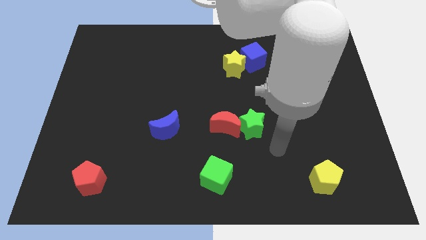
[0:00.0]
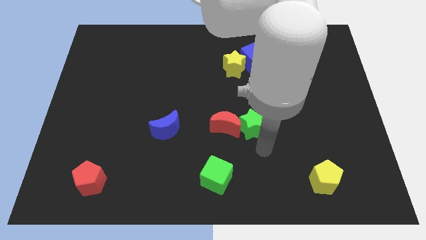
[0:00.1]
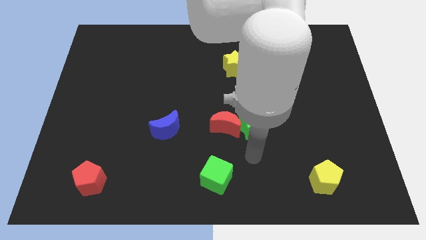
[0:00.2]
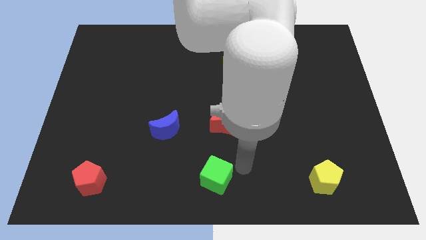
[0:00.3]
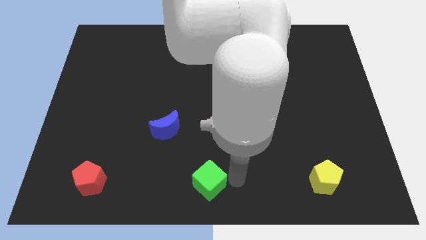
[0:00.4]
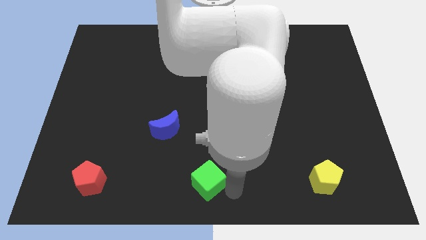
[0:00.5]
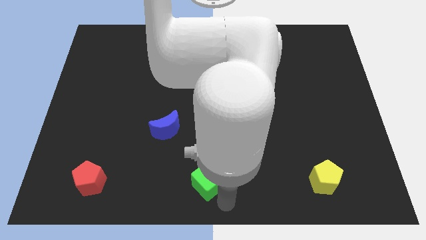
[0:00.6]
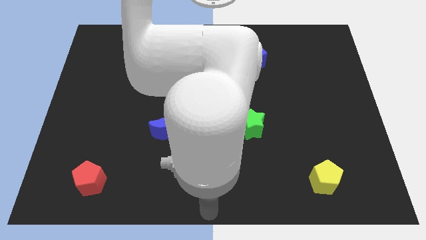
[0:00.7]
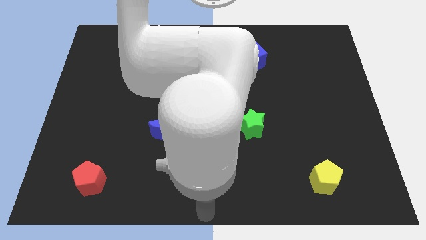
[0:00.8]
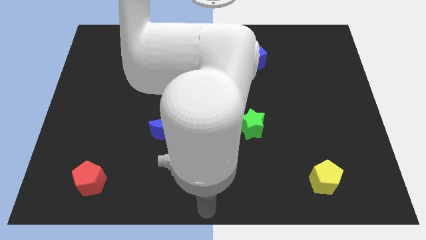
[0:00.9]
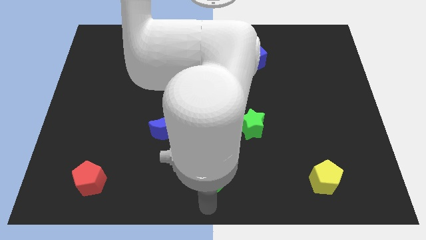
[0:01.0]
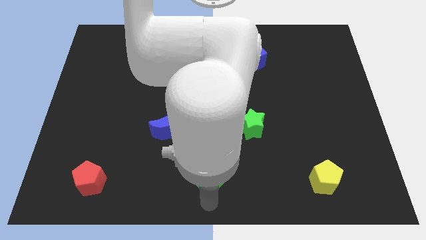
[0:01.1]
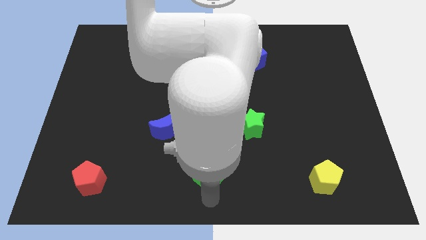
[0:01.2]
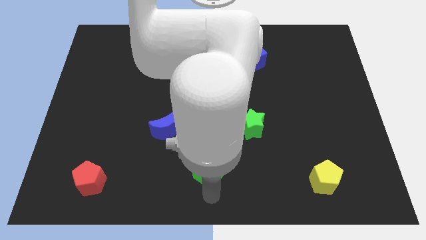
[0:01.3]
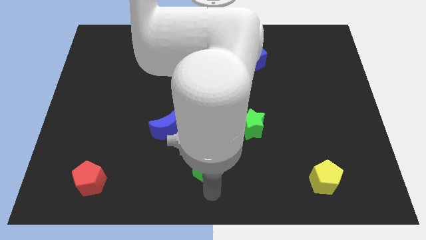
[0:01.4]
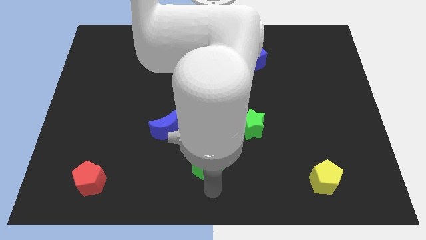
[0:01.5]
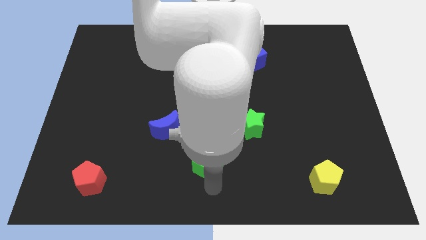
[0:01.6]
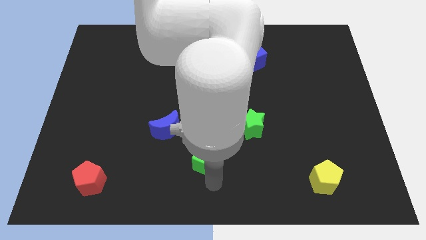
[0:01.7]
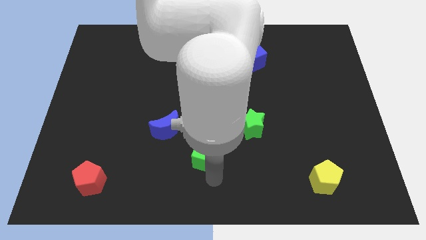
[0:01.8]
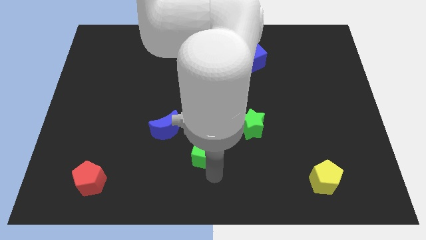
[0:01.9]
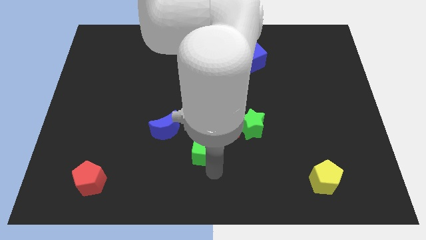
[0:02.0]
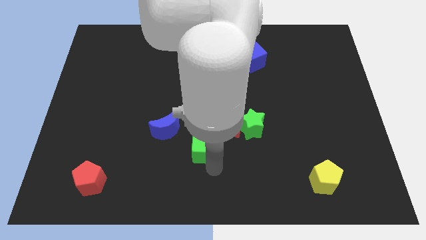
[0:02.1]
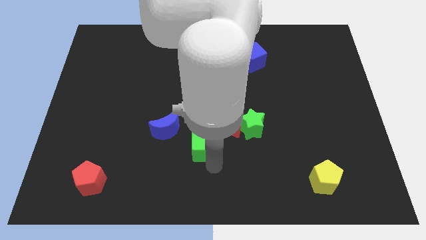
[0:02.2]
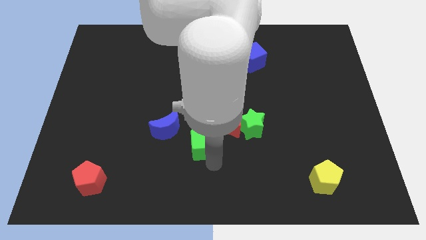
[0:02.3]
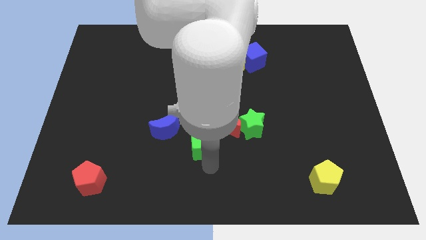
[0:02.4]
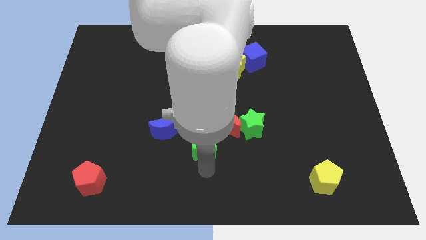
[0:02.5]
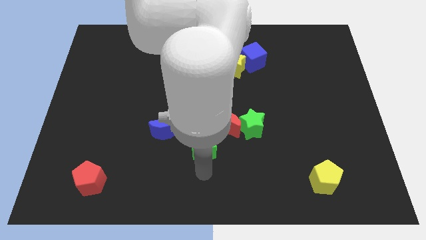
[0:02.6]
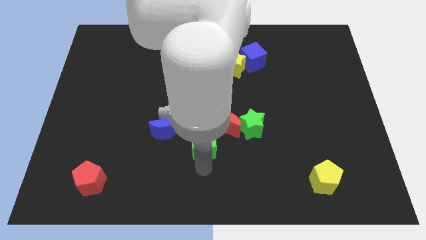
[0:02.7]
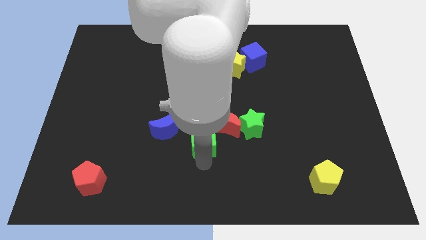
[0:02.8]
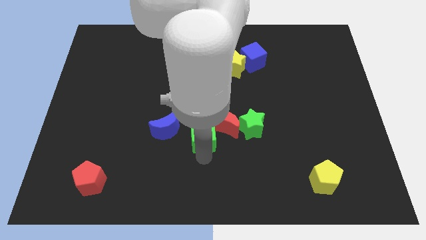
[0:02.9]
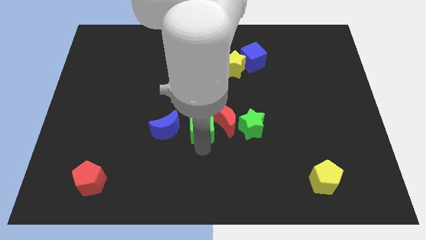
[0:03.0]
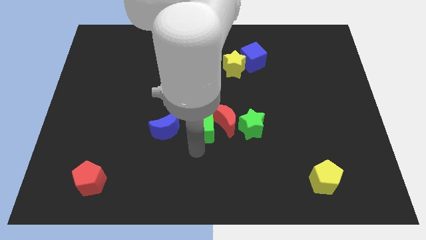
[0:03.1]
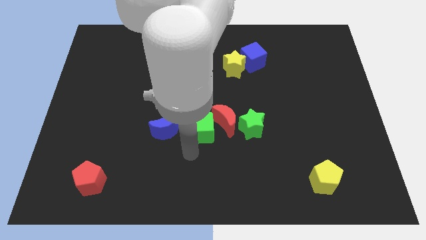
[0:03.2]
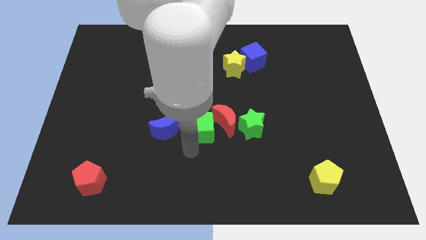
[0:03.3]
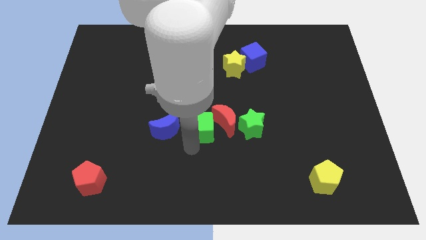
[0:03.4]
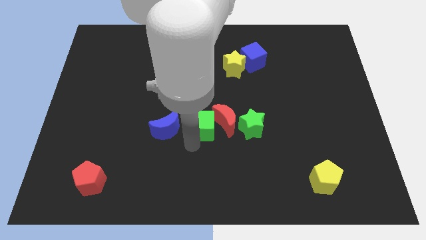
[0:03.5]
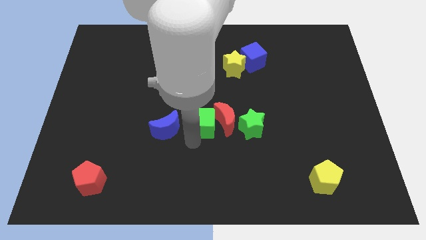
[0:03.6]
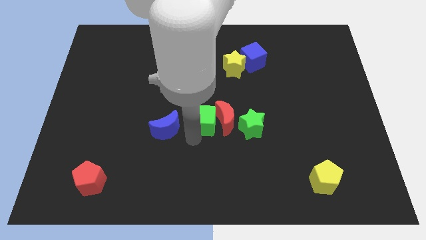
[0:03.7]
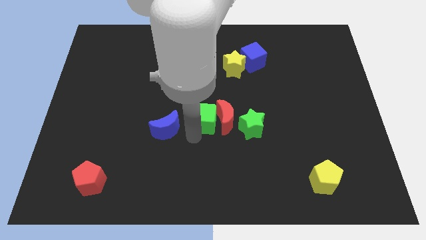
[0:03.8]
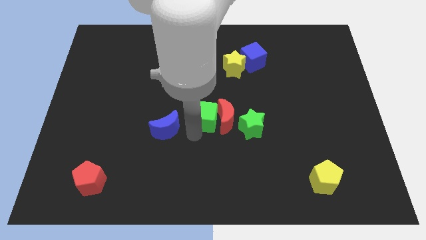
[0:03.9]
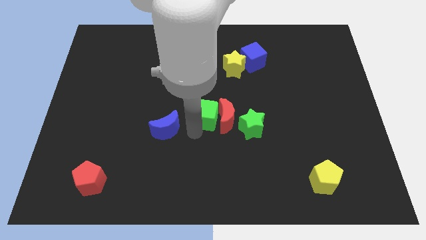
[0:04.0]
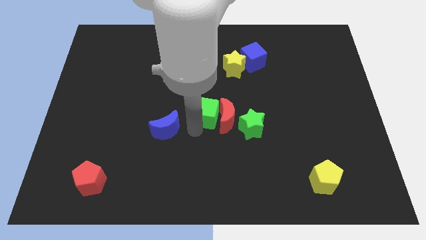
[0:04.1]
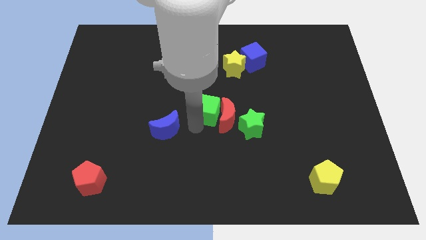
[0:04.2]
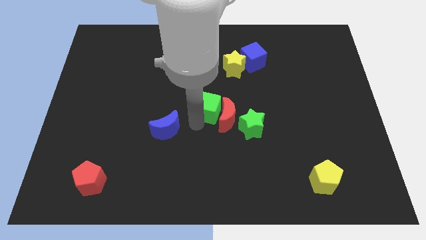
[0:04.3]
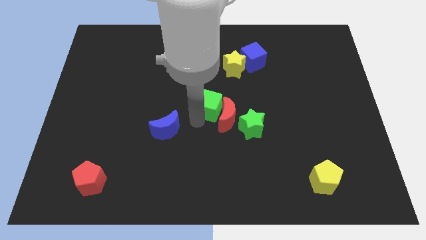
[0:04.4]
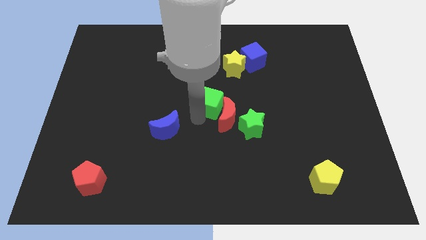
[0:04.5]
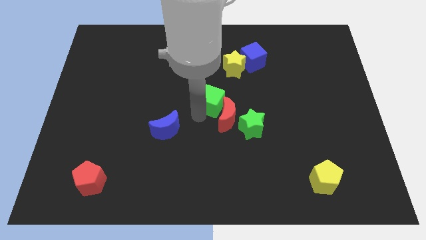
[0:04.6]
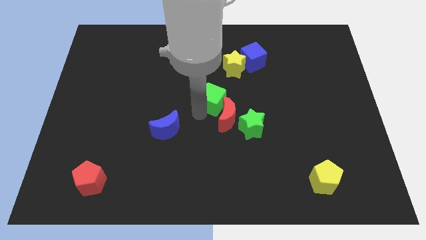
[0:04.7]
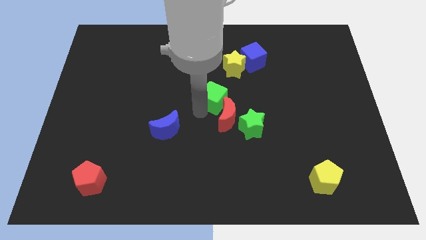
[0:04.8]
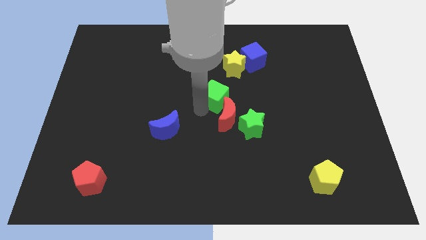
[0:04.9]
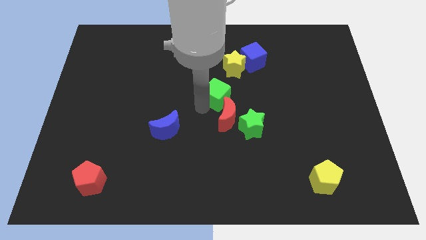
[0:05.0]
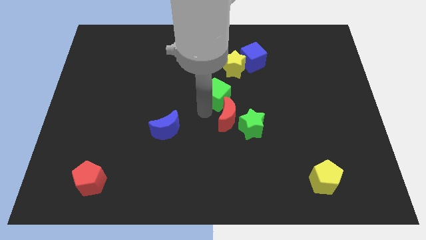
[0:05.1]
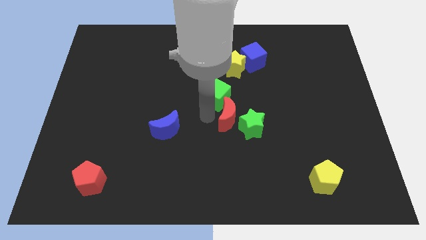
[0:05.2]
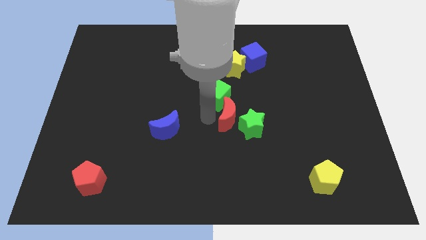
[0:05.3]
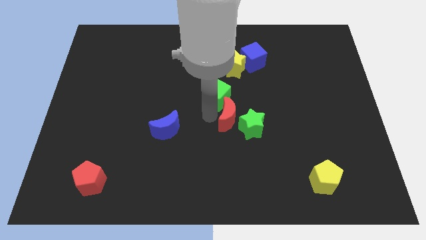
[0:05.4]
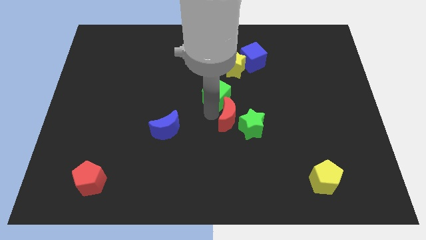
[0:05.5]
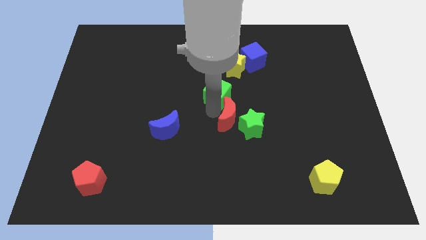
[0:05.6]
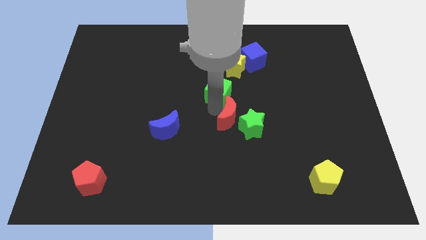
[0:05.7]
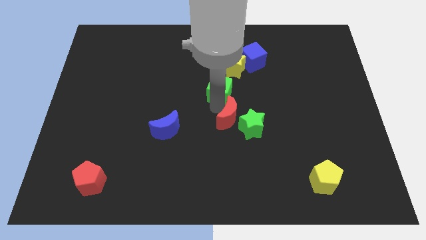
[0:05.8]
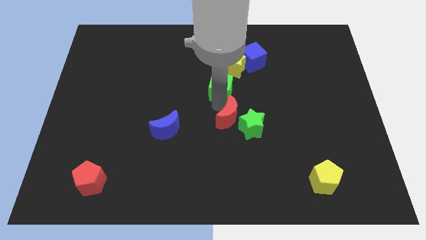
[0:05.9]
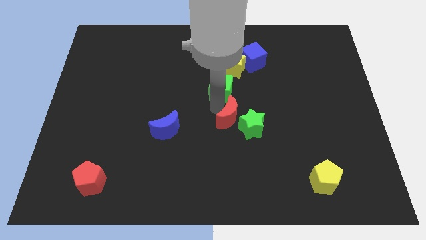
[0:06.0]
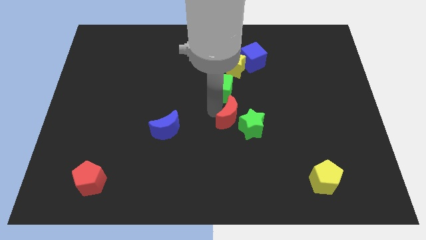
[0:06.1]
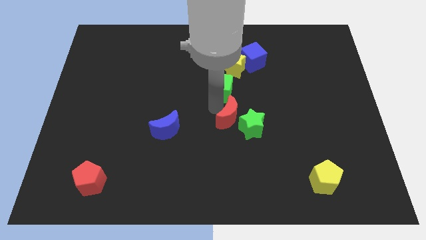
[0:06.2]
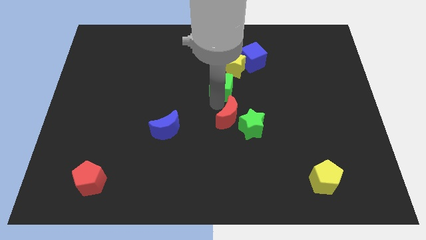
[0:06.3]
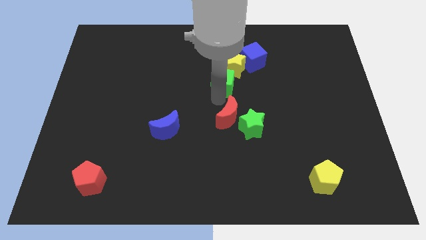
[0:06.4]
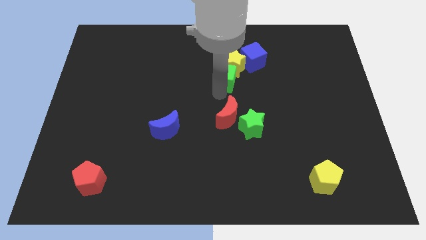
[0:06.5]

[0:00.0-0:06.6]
slide the green cube next to the yellow star

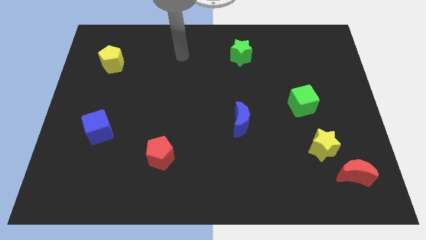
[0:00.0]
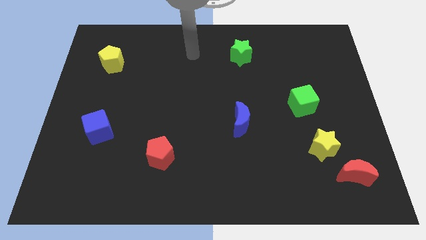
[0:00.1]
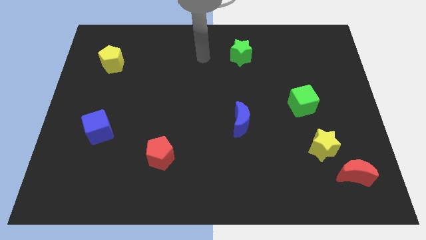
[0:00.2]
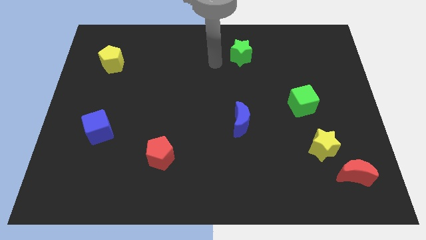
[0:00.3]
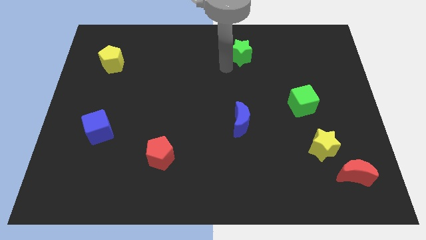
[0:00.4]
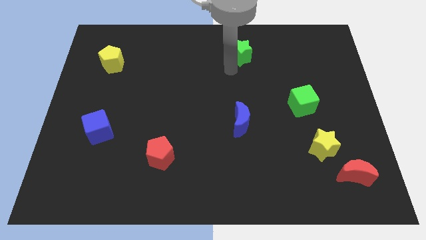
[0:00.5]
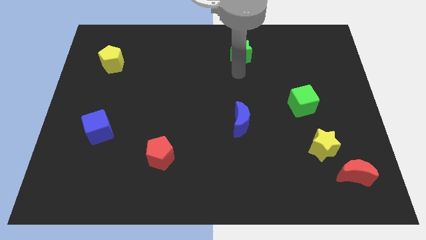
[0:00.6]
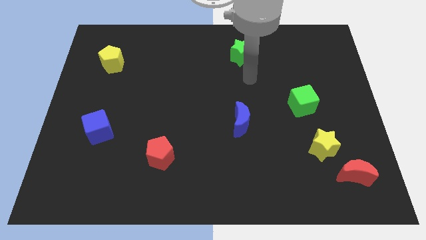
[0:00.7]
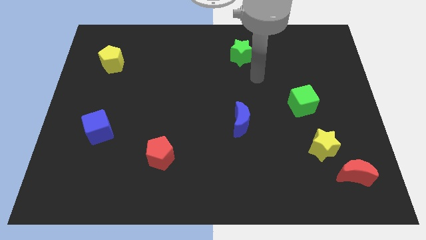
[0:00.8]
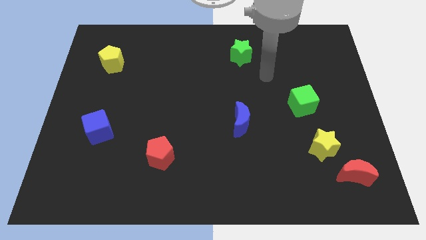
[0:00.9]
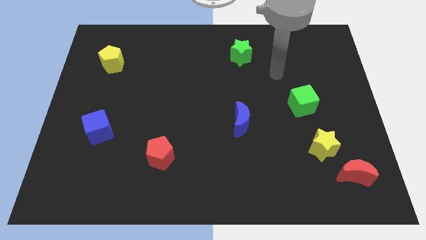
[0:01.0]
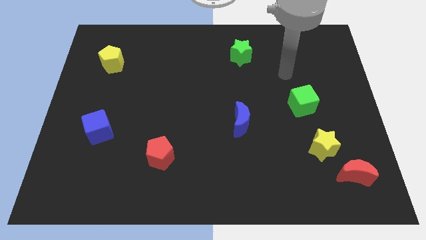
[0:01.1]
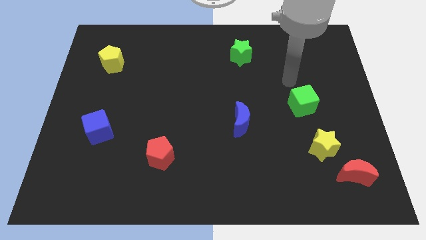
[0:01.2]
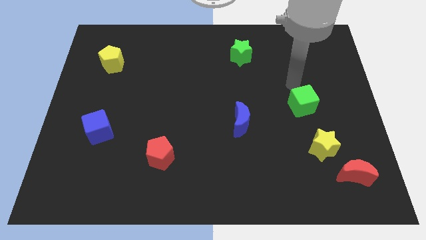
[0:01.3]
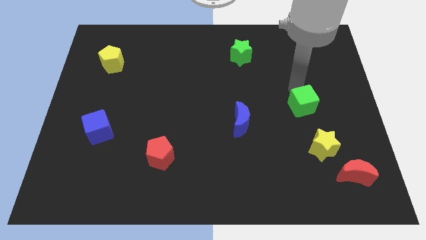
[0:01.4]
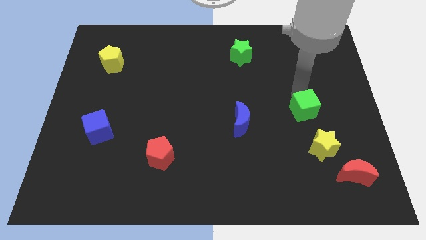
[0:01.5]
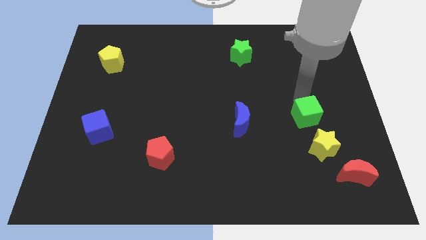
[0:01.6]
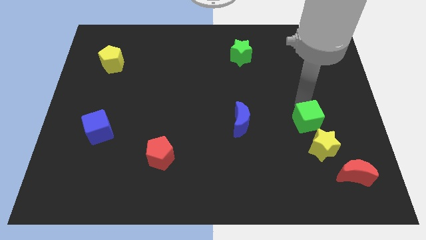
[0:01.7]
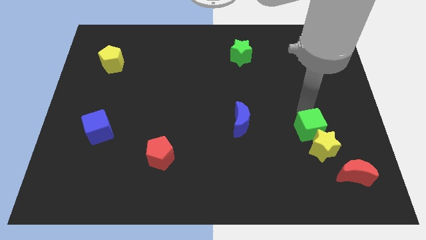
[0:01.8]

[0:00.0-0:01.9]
move the green cube to the yellow star
